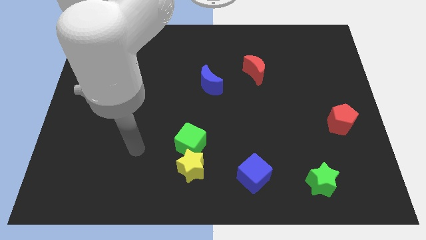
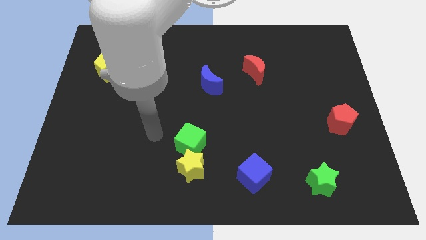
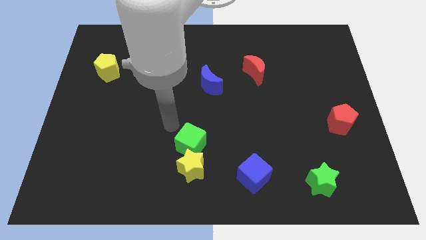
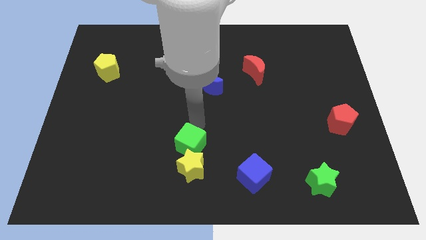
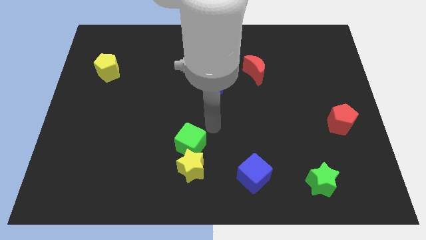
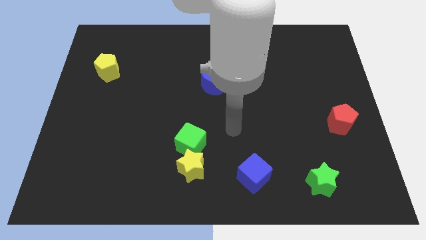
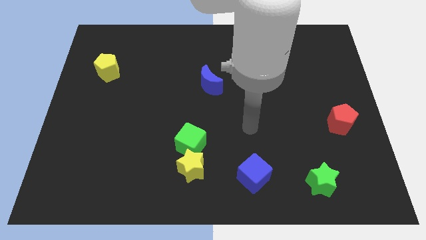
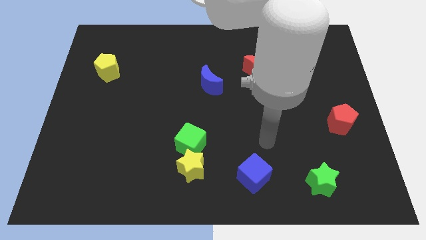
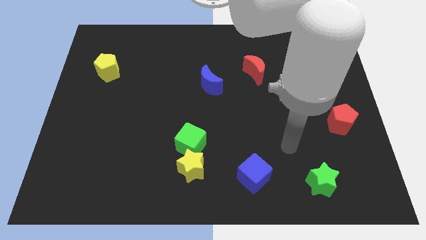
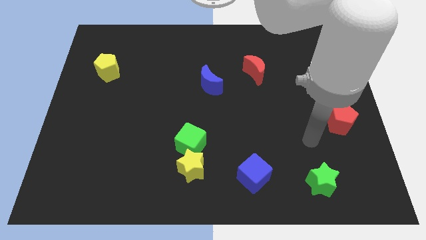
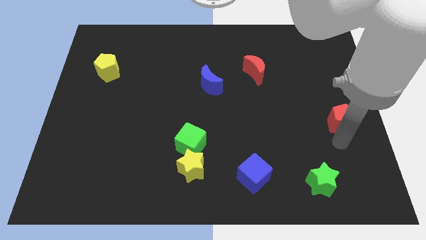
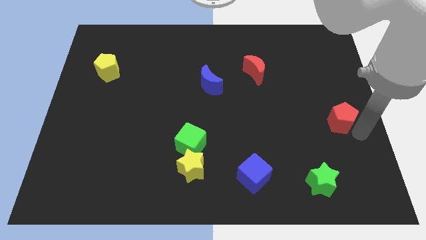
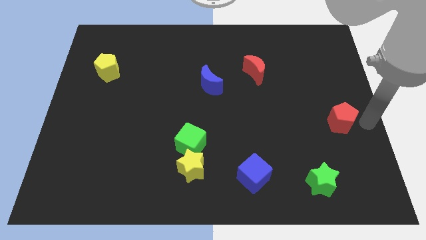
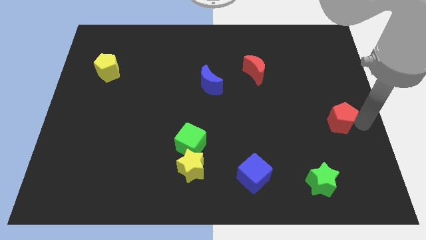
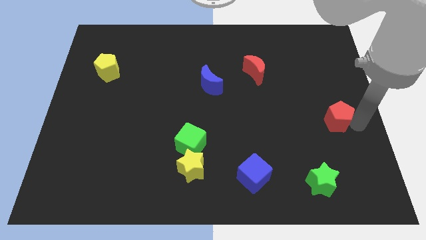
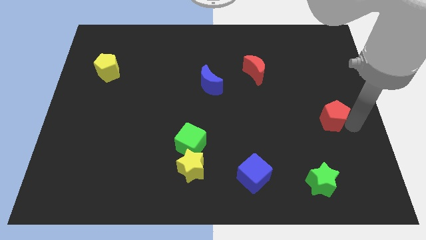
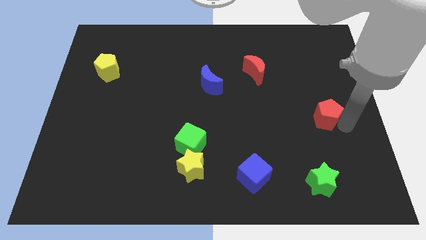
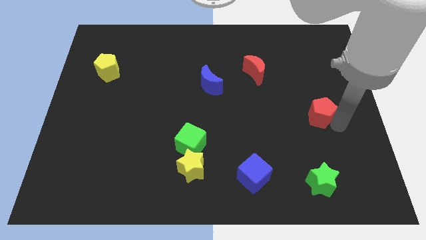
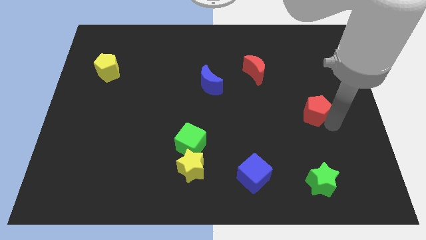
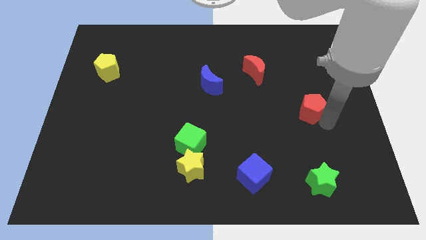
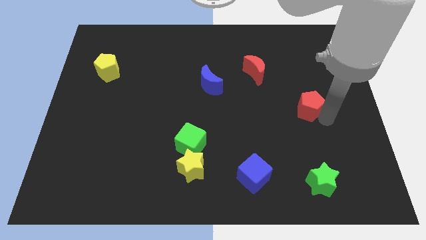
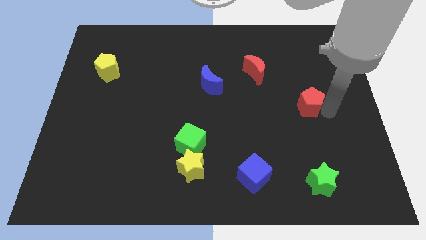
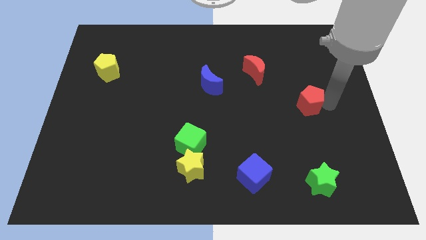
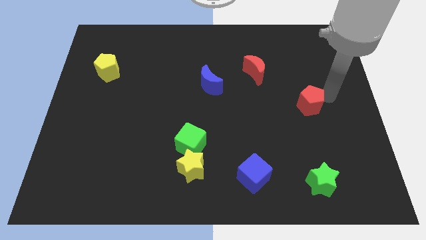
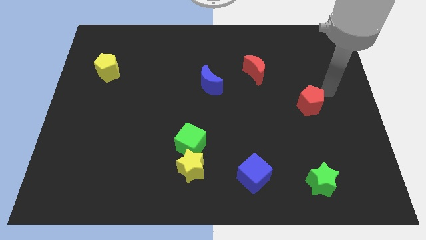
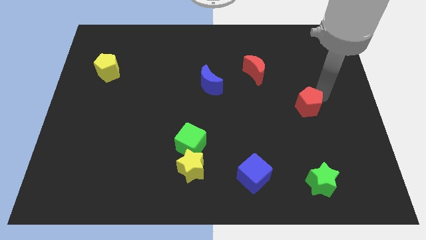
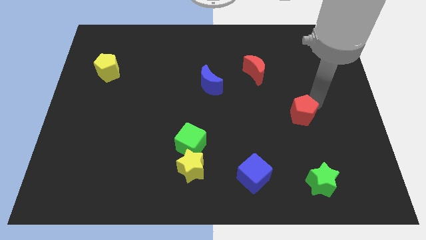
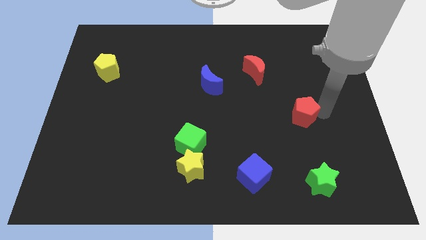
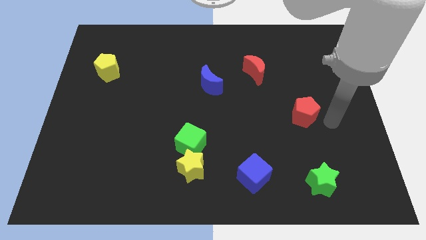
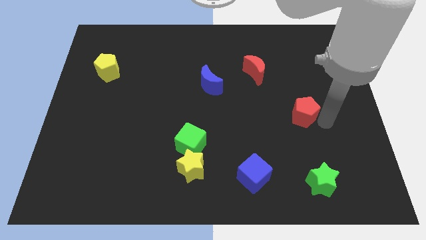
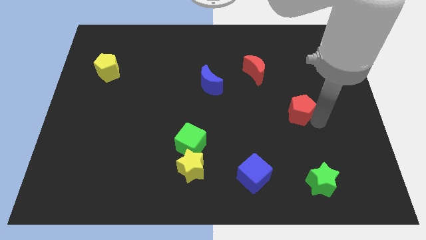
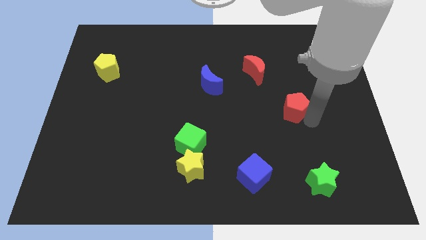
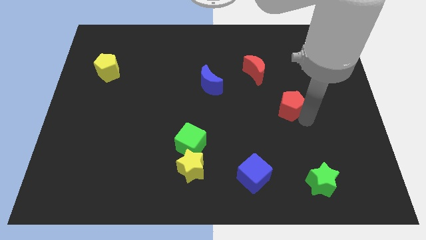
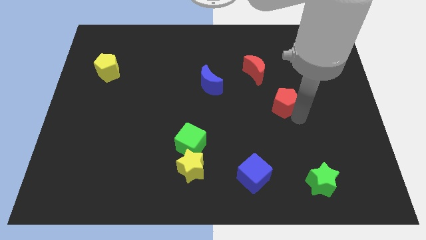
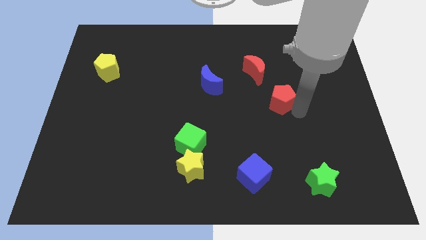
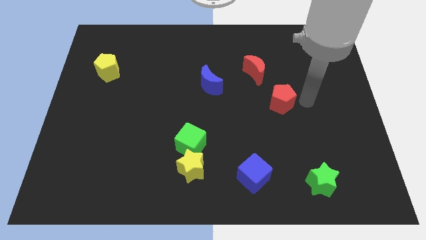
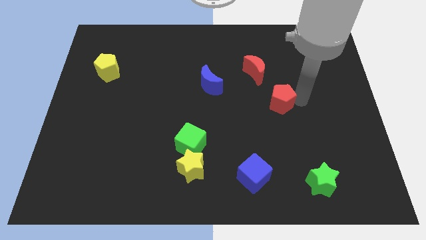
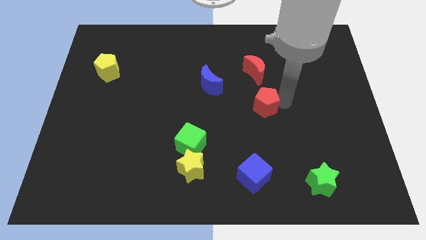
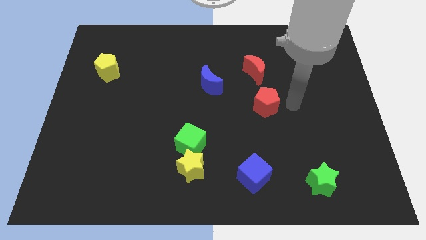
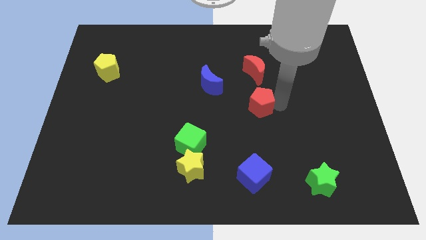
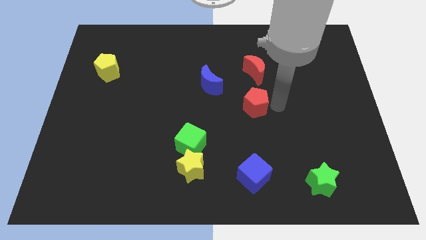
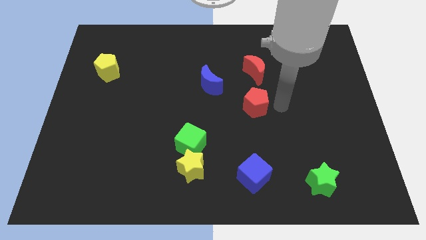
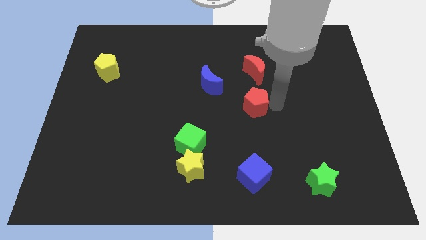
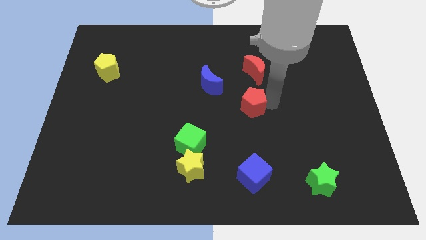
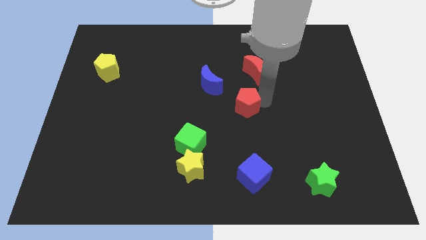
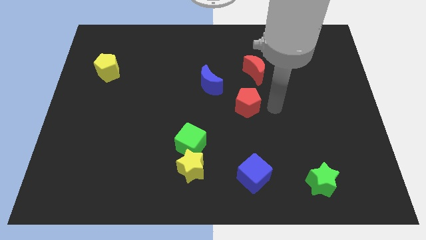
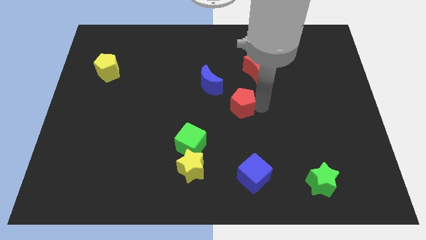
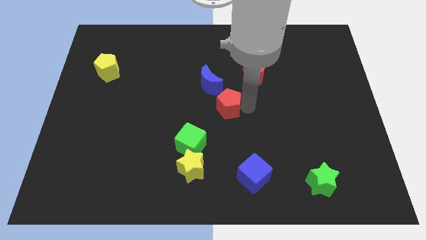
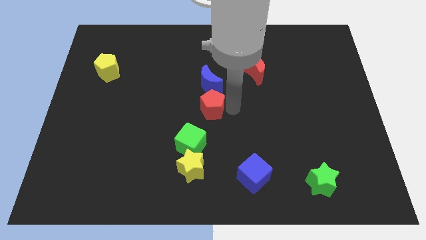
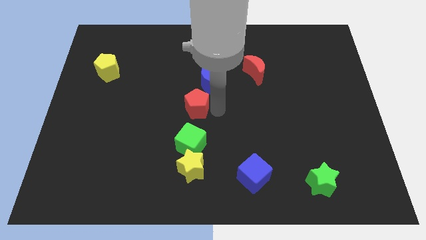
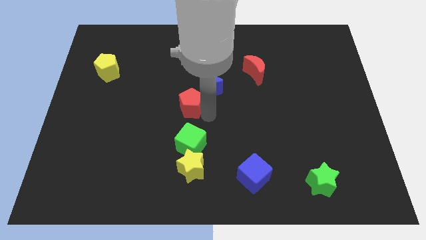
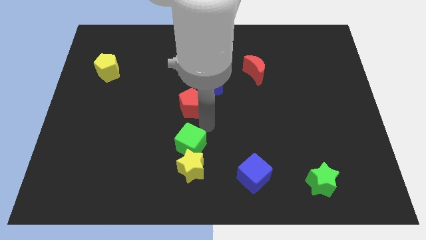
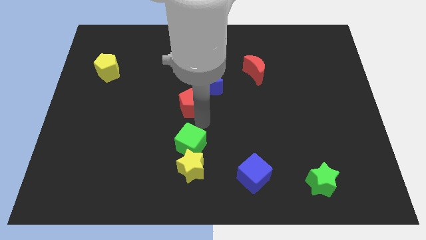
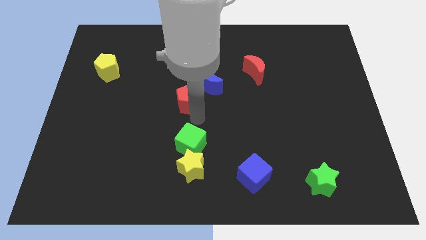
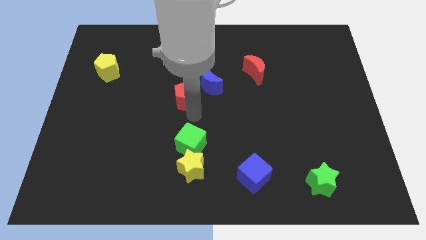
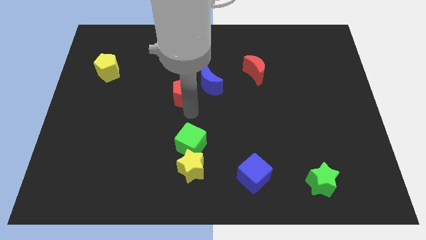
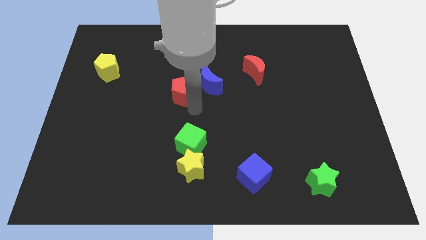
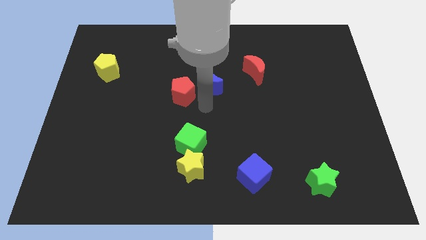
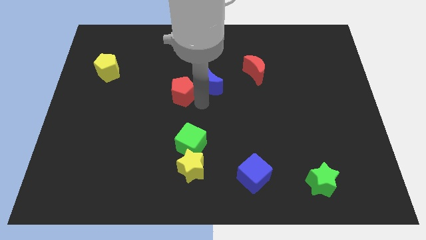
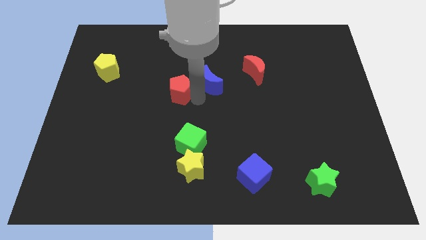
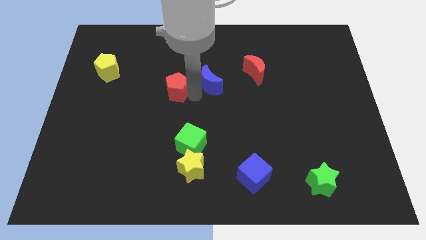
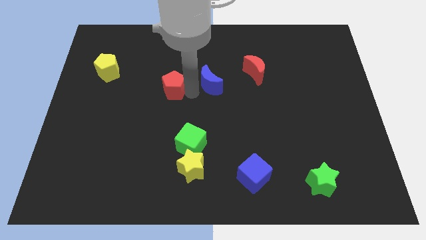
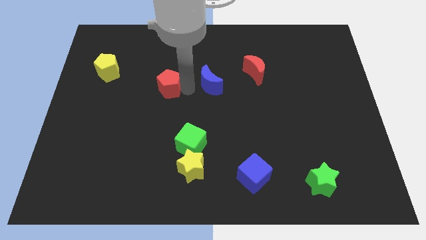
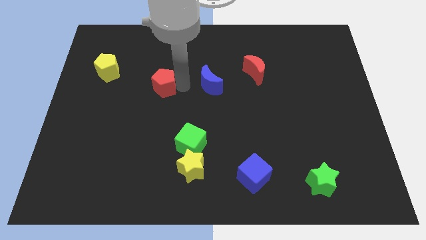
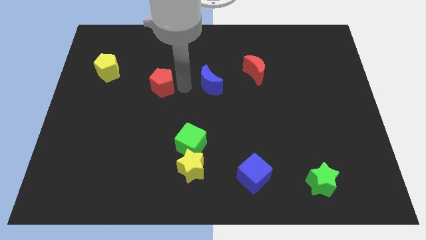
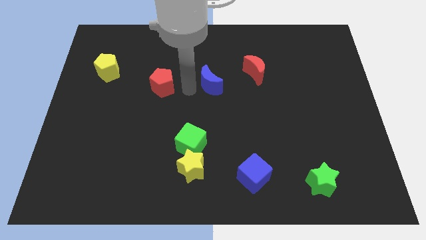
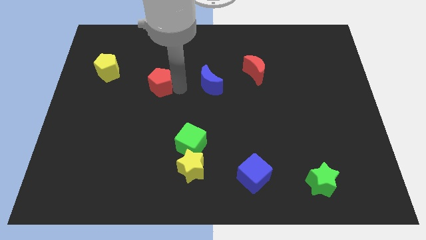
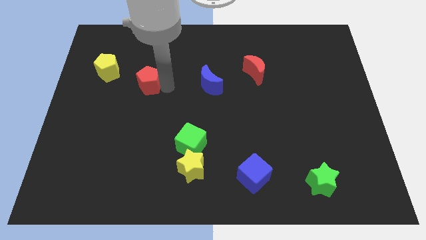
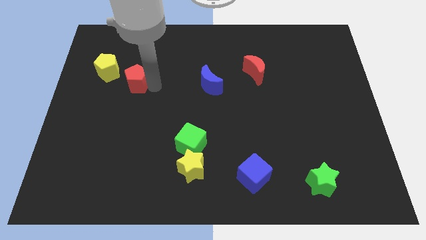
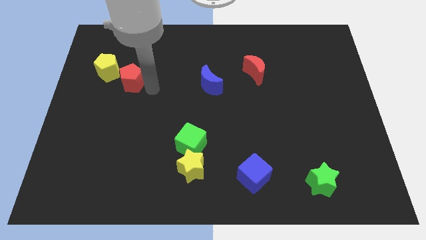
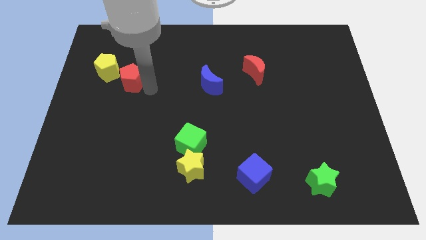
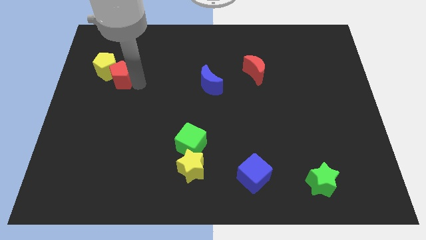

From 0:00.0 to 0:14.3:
put the red pentagon next to the yellow pentagon
